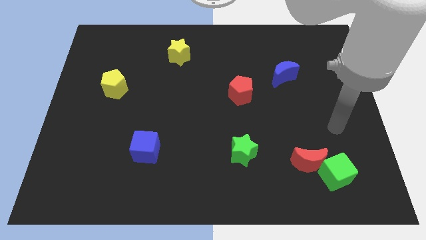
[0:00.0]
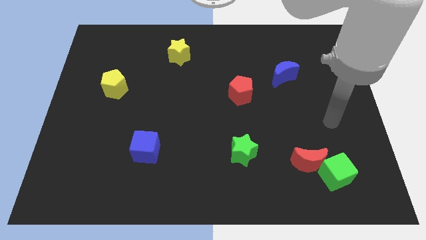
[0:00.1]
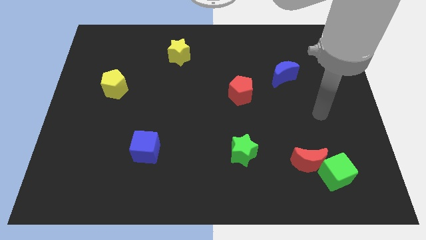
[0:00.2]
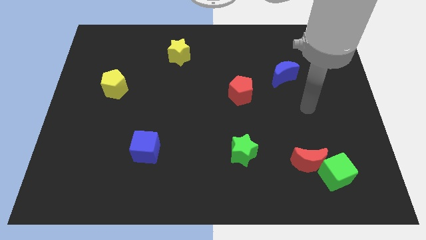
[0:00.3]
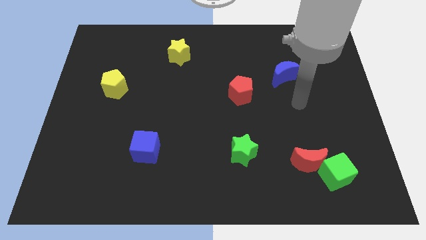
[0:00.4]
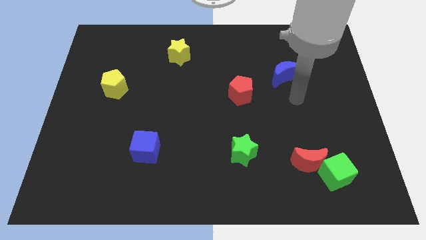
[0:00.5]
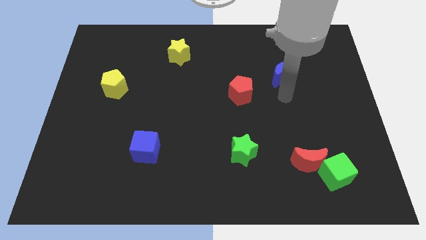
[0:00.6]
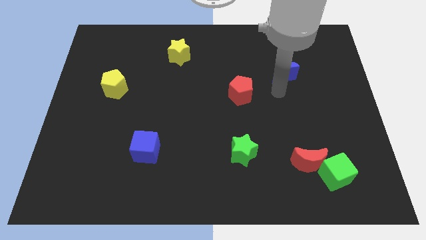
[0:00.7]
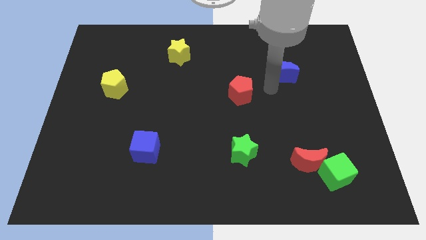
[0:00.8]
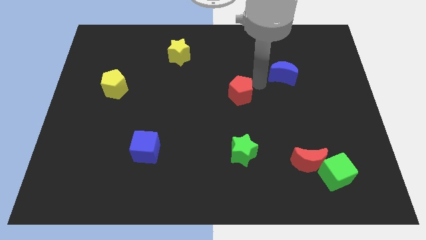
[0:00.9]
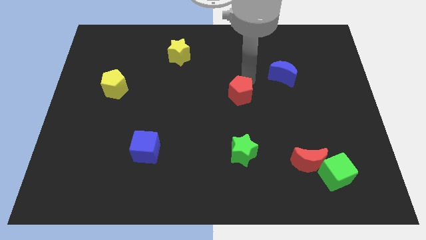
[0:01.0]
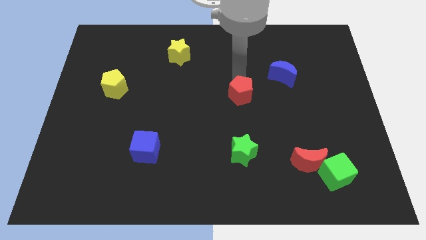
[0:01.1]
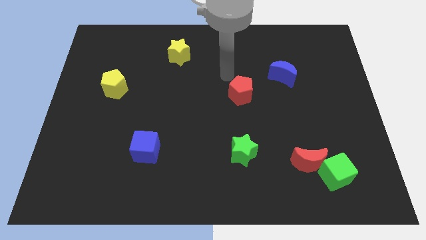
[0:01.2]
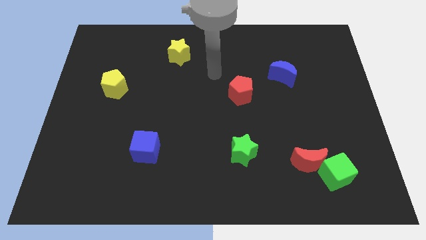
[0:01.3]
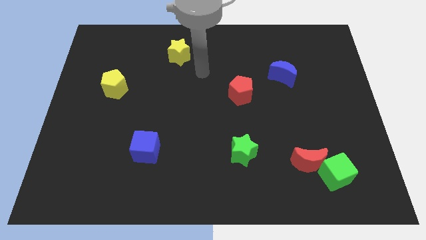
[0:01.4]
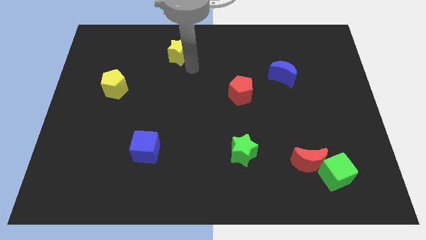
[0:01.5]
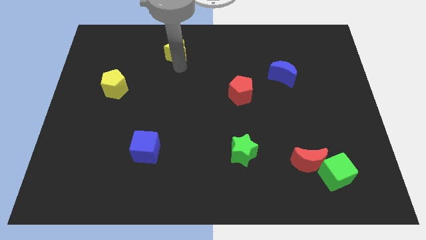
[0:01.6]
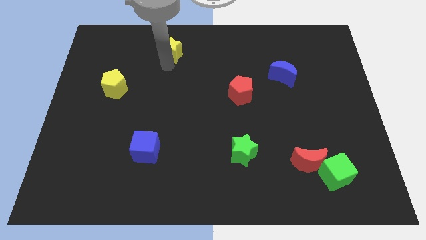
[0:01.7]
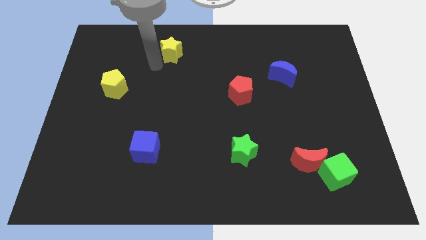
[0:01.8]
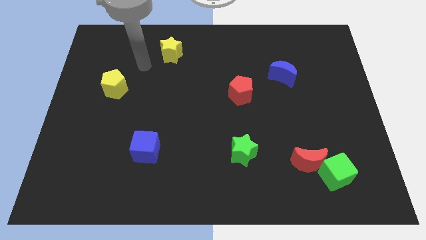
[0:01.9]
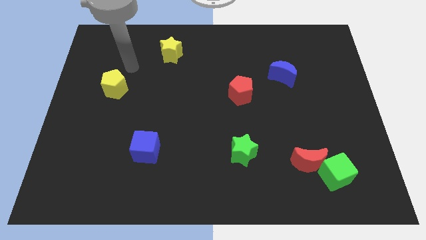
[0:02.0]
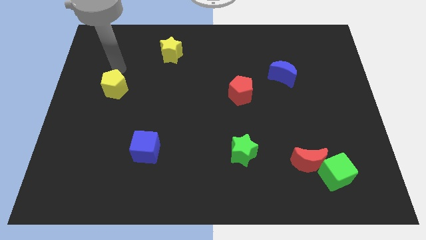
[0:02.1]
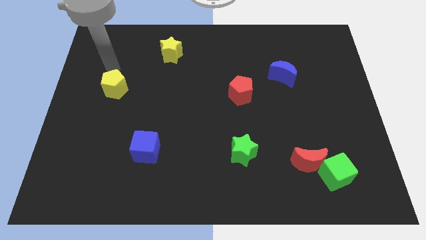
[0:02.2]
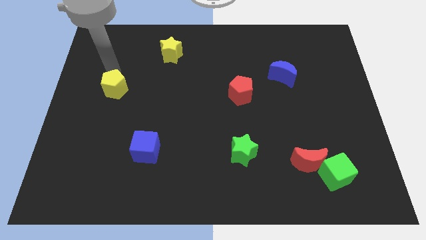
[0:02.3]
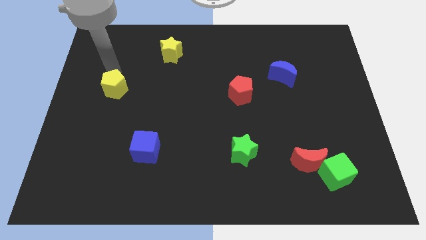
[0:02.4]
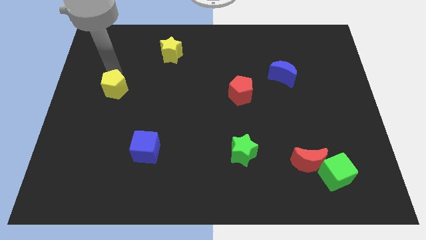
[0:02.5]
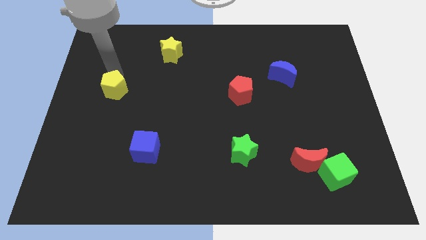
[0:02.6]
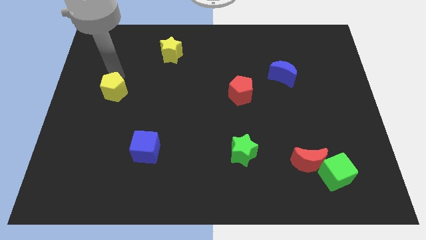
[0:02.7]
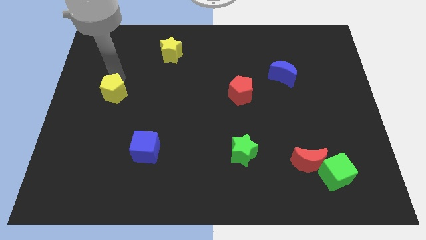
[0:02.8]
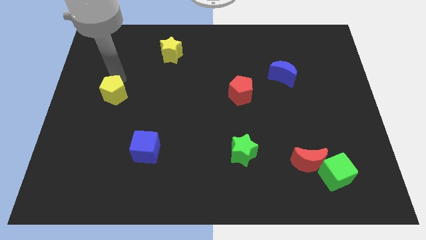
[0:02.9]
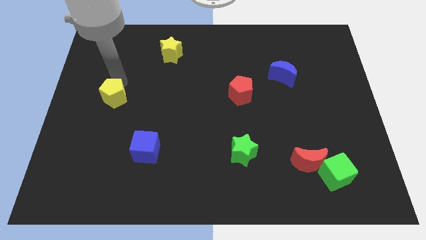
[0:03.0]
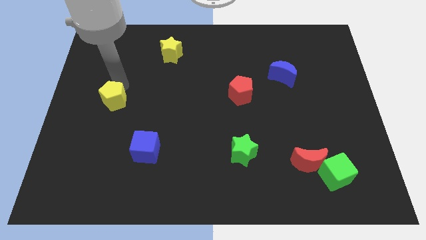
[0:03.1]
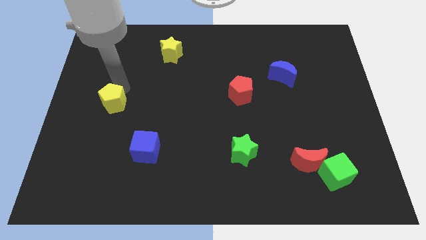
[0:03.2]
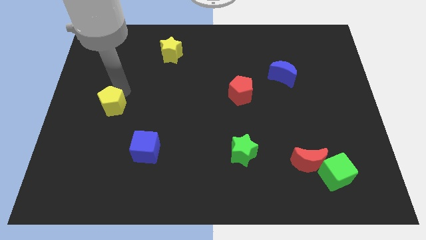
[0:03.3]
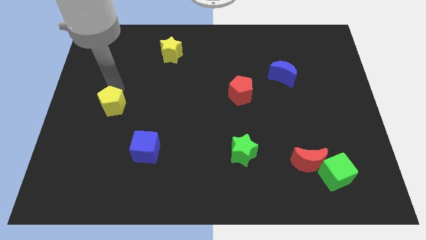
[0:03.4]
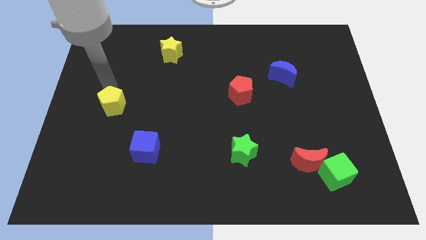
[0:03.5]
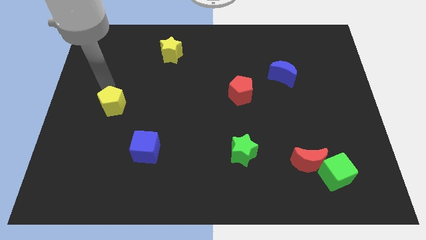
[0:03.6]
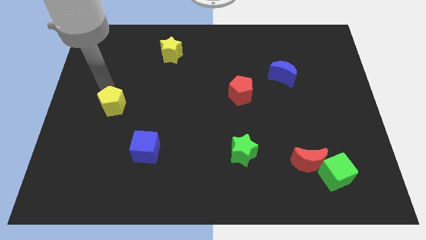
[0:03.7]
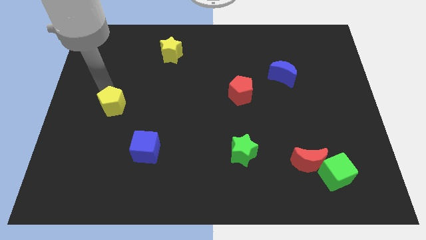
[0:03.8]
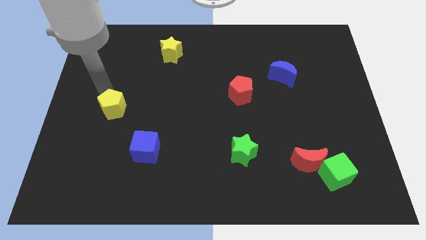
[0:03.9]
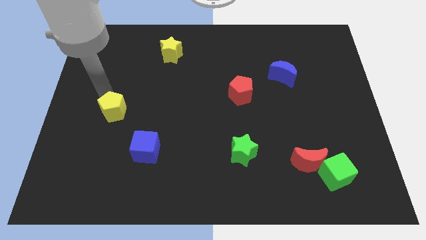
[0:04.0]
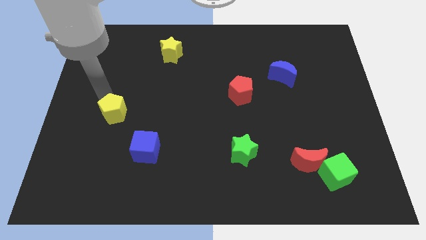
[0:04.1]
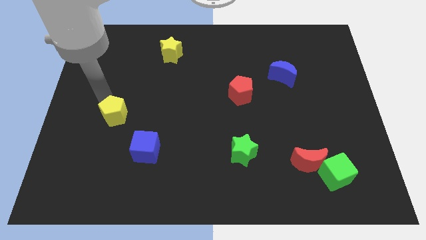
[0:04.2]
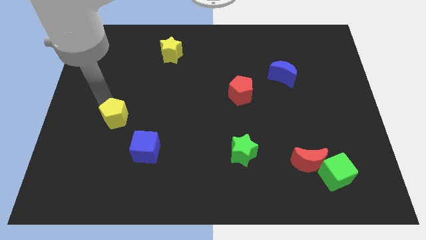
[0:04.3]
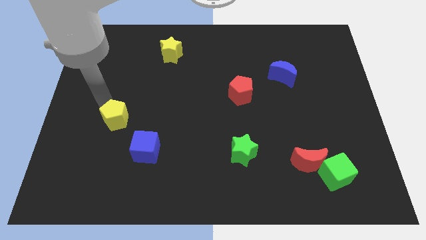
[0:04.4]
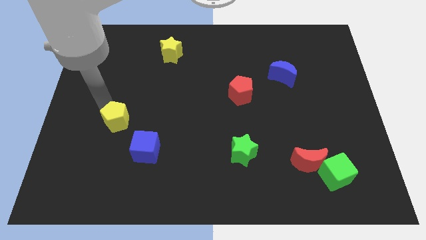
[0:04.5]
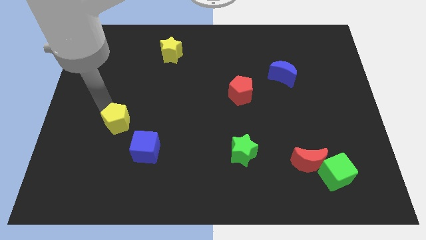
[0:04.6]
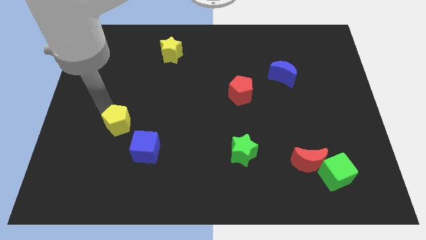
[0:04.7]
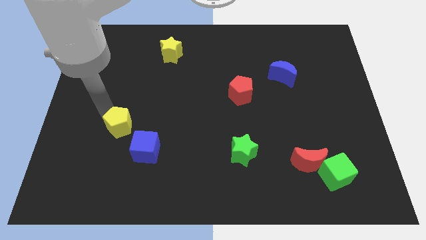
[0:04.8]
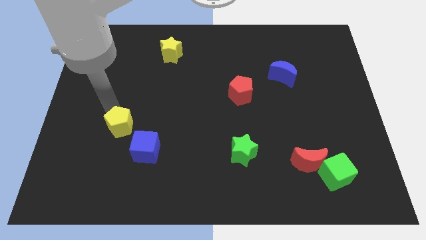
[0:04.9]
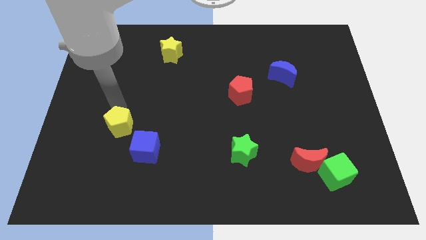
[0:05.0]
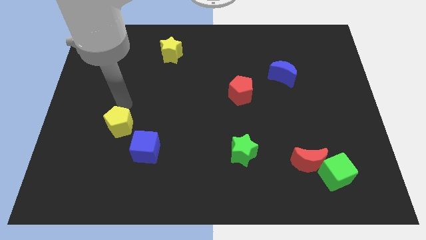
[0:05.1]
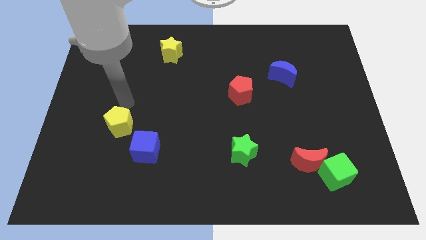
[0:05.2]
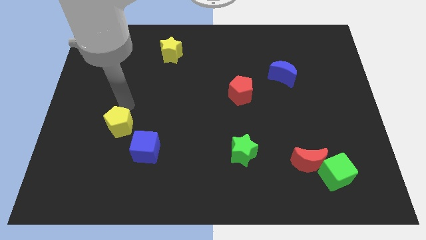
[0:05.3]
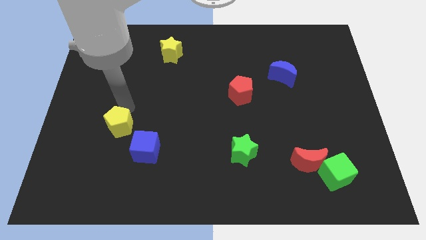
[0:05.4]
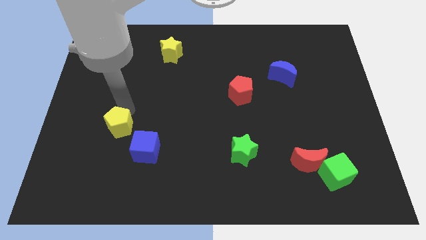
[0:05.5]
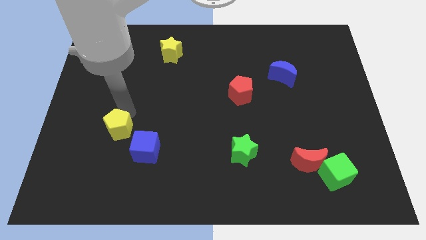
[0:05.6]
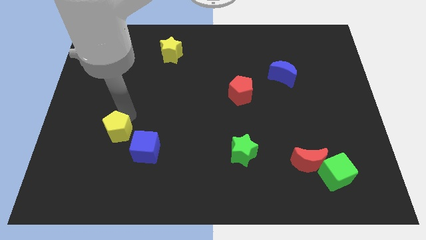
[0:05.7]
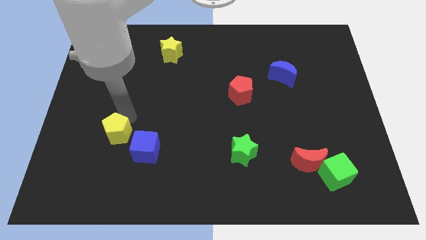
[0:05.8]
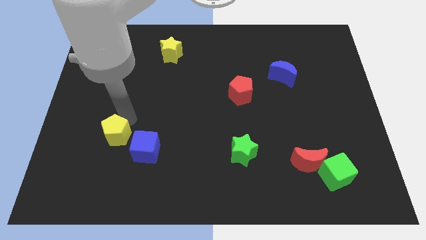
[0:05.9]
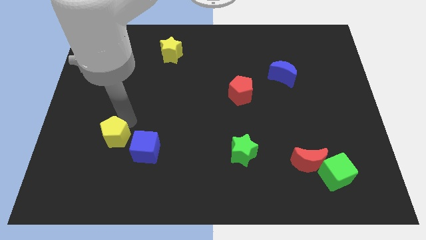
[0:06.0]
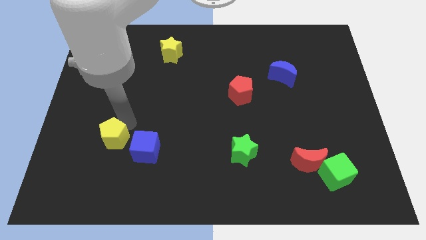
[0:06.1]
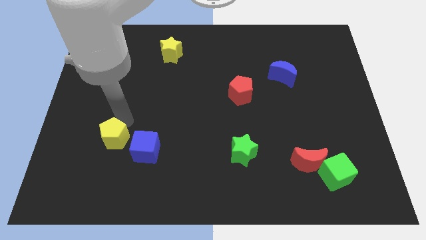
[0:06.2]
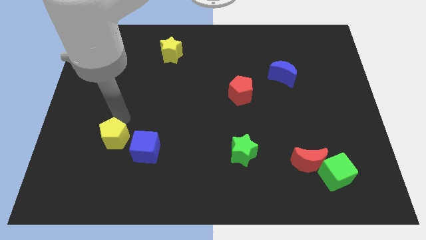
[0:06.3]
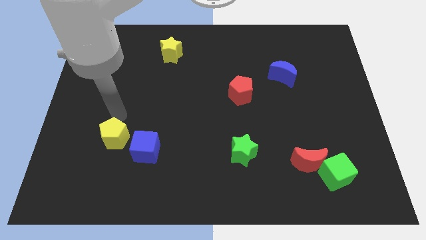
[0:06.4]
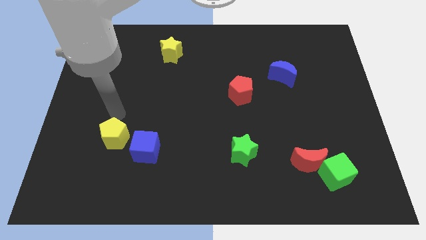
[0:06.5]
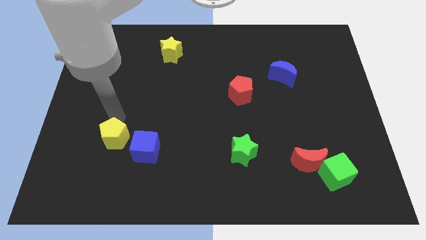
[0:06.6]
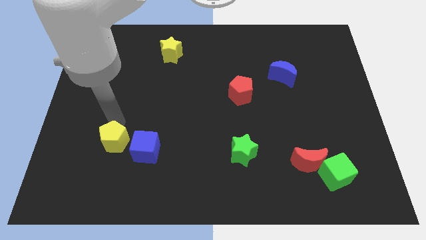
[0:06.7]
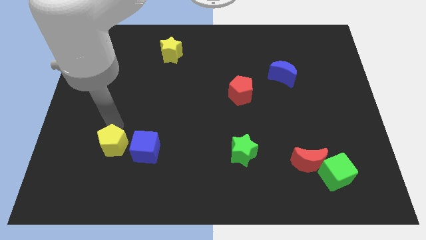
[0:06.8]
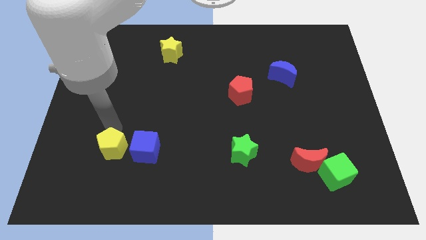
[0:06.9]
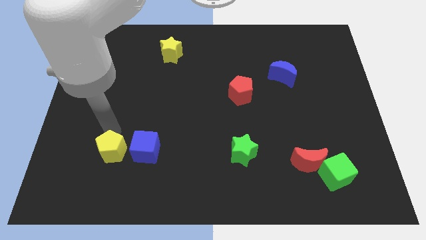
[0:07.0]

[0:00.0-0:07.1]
slide the yellow pentagon diagonally down and to the left of the blue cube

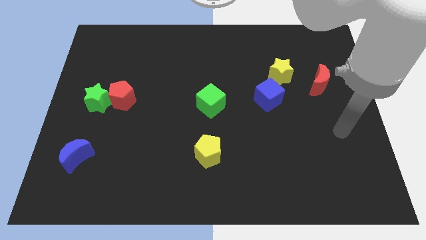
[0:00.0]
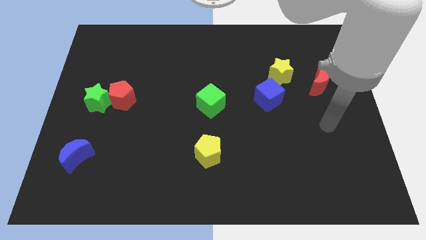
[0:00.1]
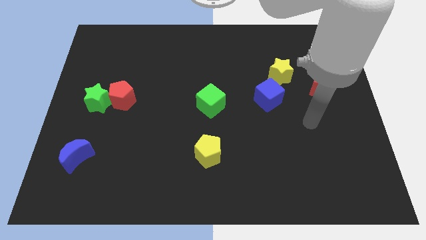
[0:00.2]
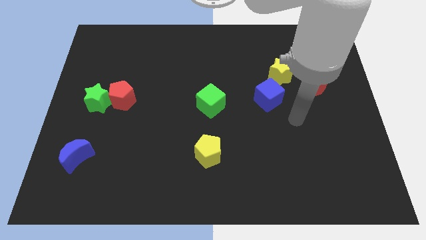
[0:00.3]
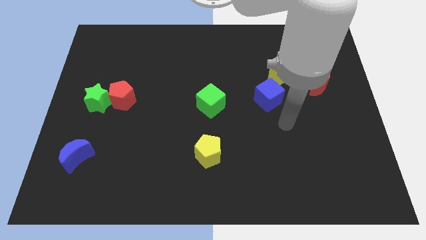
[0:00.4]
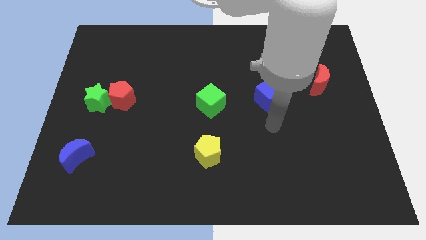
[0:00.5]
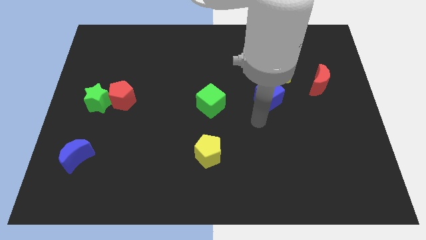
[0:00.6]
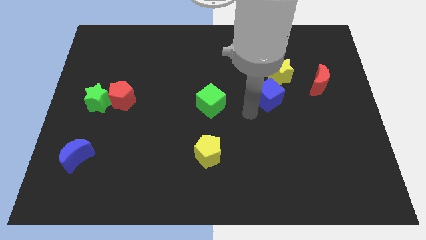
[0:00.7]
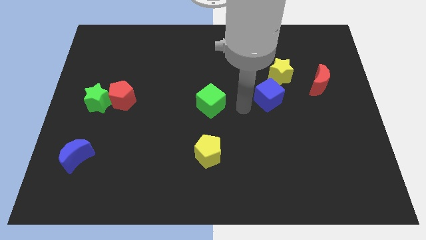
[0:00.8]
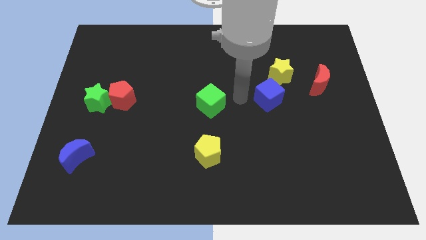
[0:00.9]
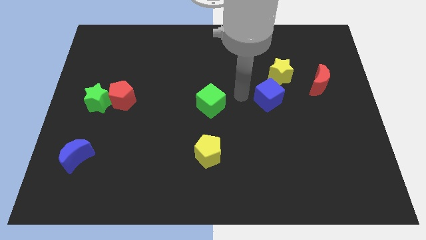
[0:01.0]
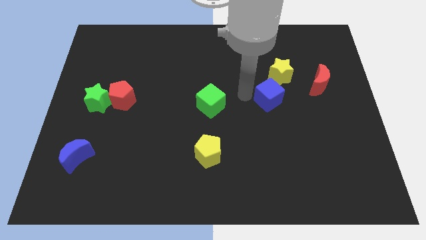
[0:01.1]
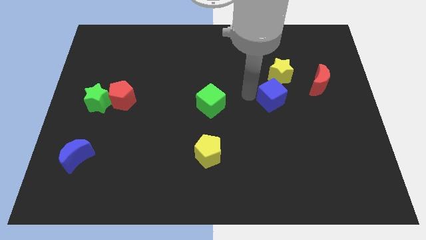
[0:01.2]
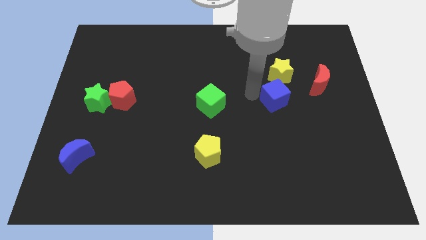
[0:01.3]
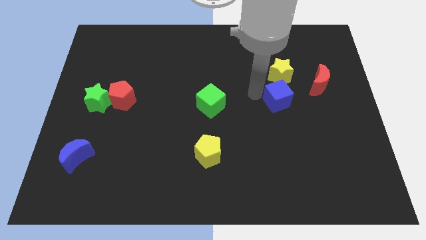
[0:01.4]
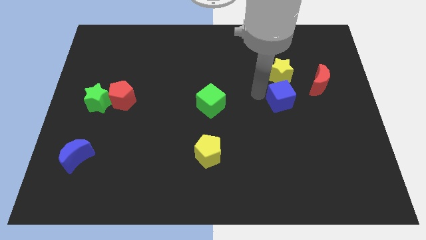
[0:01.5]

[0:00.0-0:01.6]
move the blue cube diagonally down and to the left of the red moon
